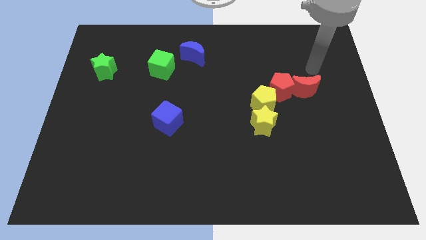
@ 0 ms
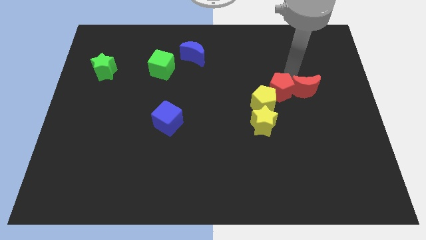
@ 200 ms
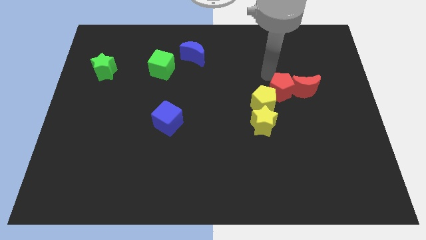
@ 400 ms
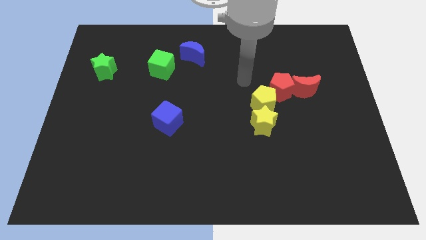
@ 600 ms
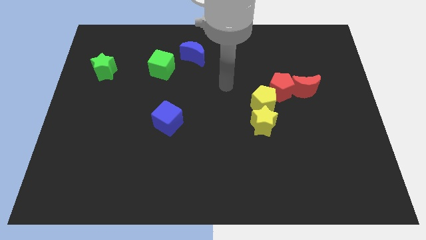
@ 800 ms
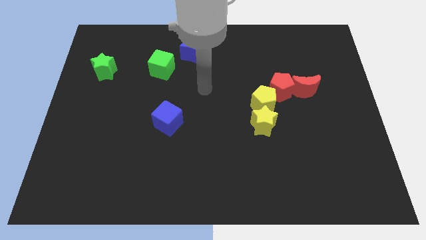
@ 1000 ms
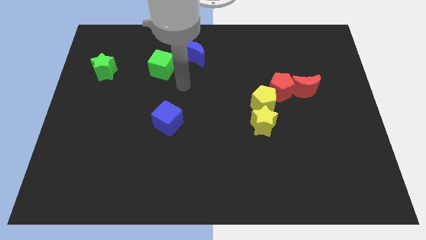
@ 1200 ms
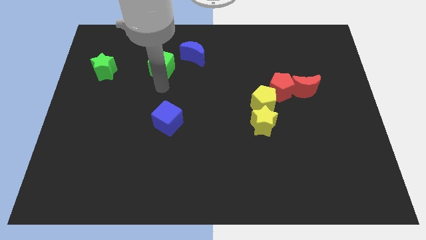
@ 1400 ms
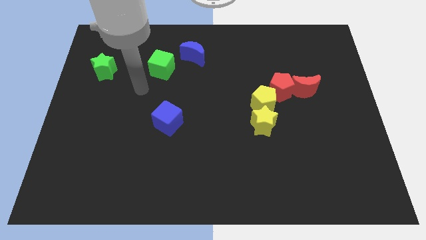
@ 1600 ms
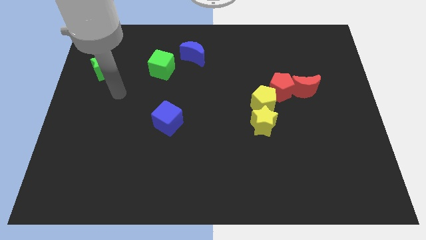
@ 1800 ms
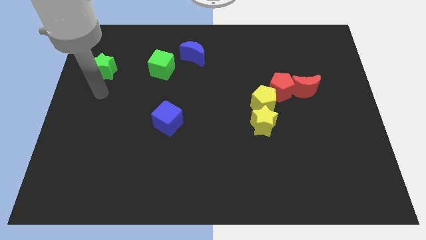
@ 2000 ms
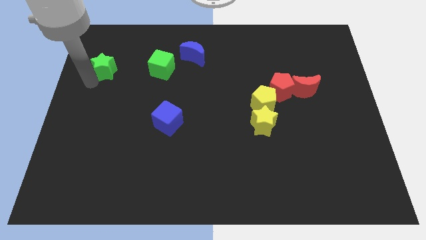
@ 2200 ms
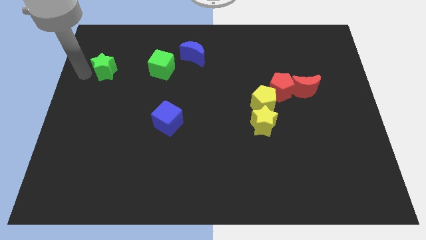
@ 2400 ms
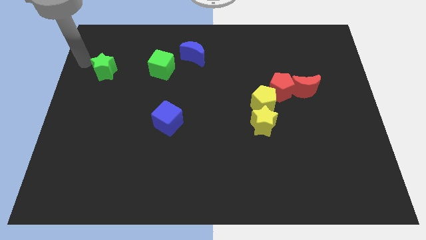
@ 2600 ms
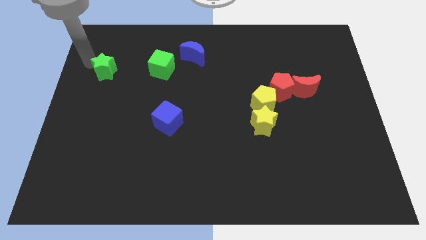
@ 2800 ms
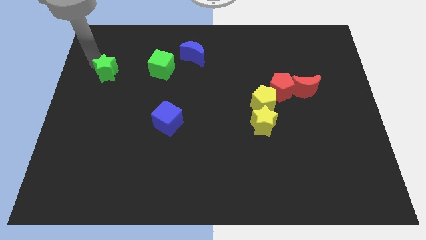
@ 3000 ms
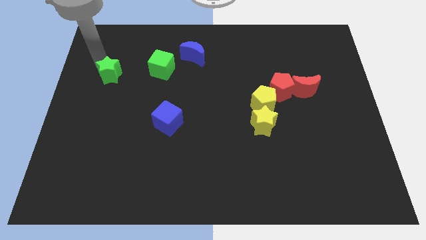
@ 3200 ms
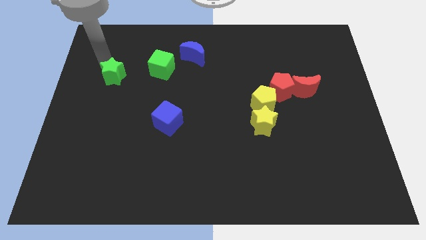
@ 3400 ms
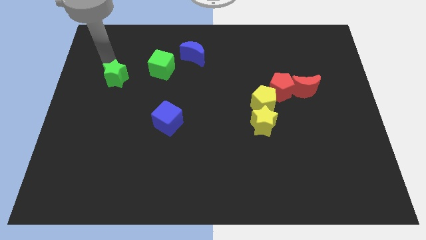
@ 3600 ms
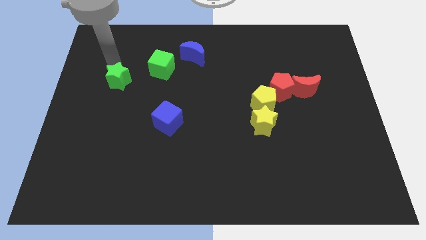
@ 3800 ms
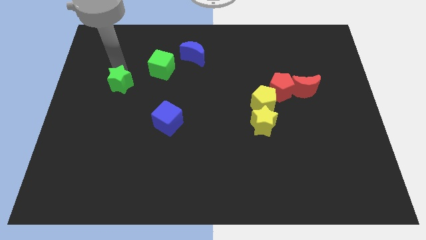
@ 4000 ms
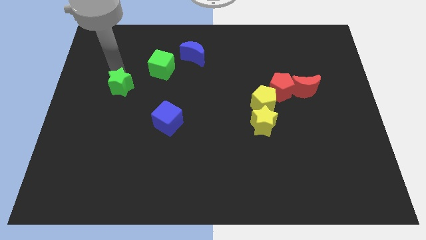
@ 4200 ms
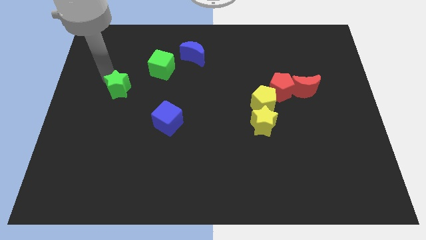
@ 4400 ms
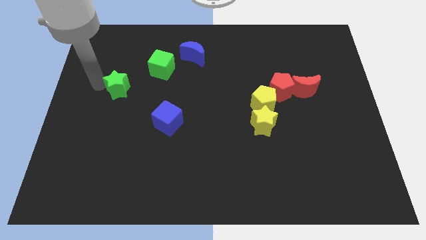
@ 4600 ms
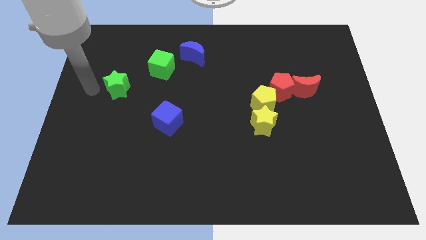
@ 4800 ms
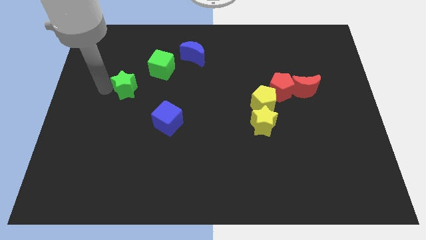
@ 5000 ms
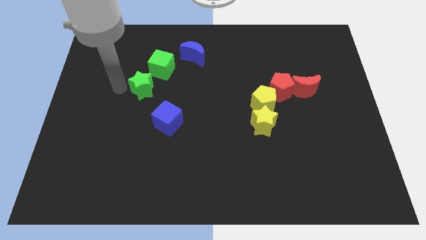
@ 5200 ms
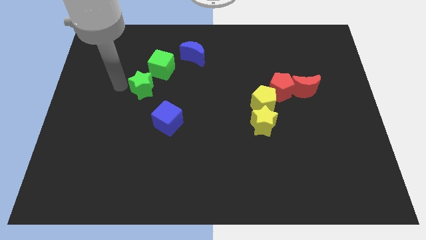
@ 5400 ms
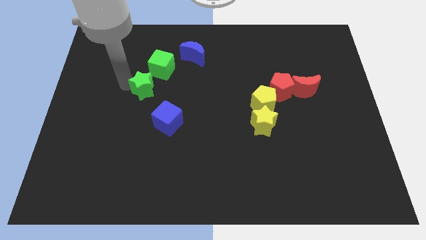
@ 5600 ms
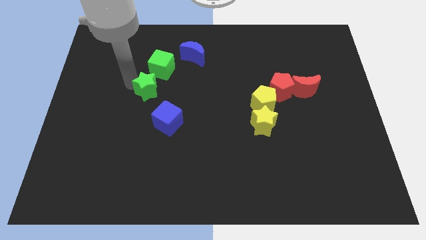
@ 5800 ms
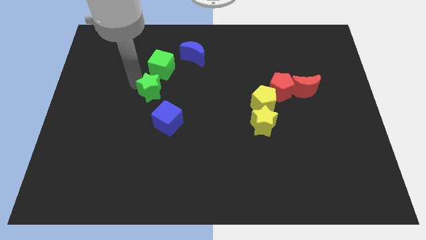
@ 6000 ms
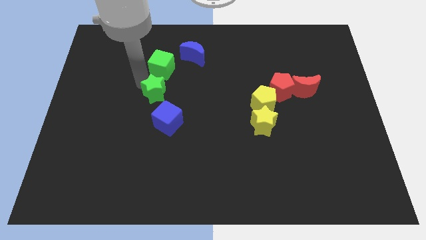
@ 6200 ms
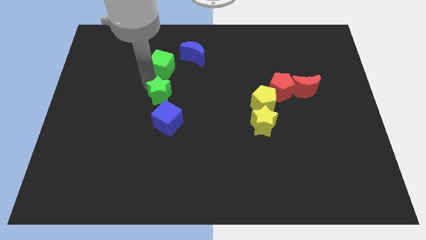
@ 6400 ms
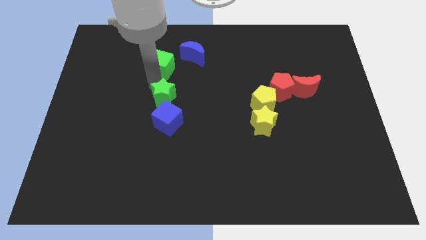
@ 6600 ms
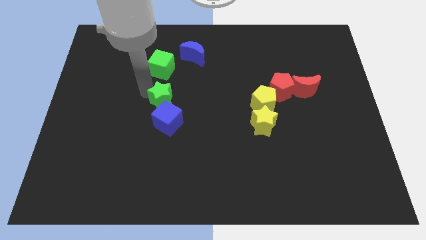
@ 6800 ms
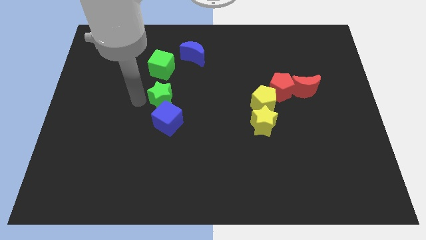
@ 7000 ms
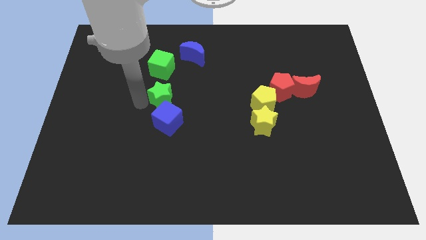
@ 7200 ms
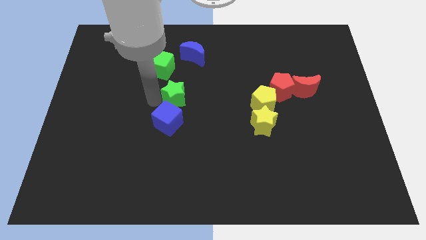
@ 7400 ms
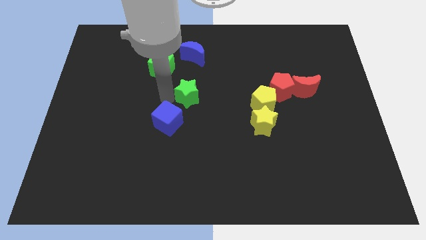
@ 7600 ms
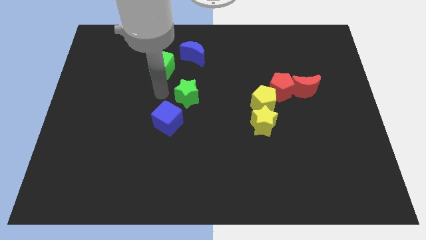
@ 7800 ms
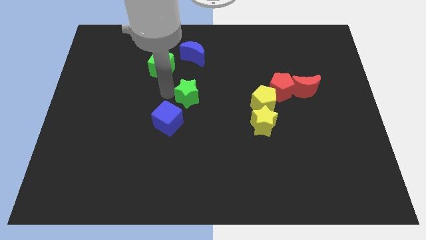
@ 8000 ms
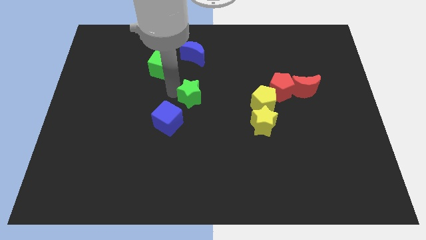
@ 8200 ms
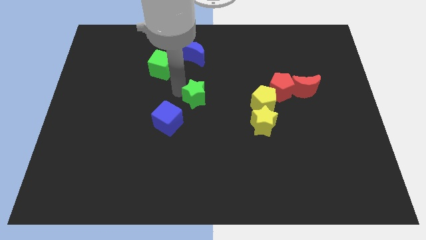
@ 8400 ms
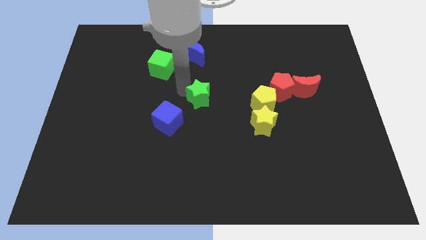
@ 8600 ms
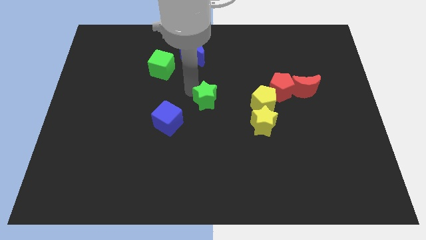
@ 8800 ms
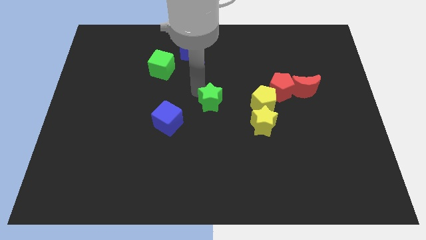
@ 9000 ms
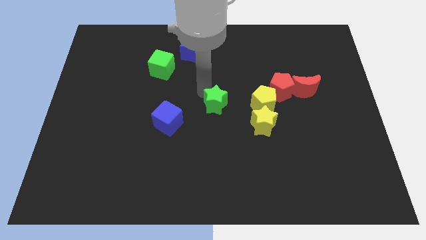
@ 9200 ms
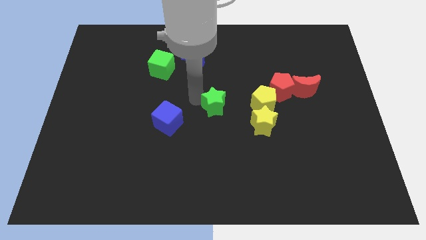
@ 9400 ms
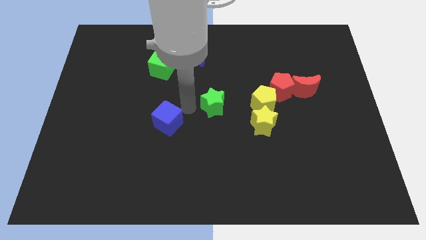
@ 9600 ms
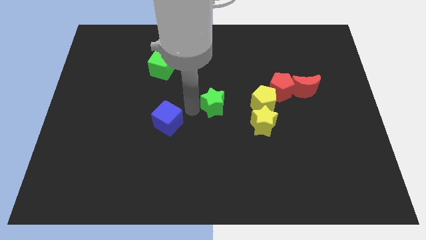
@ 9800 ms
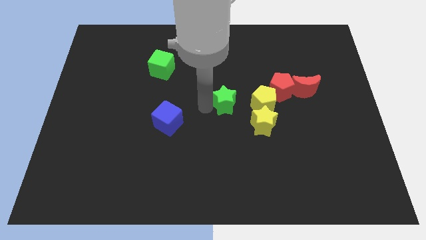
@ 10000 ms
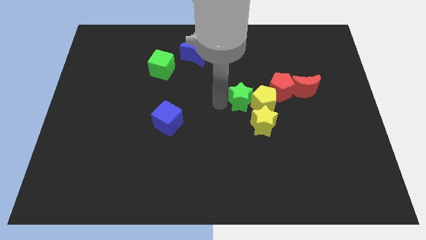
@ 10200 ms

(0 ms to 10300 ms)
move the green star close to the yellow pentagon

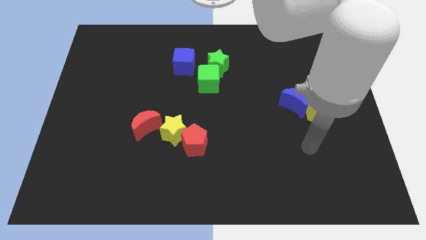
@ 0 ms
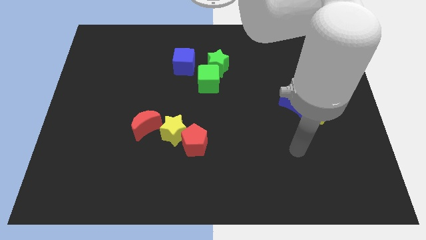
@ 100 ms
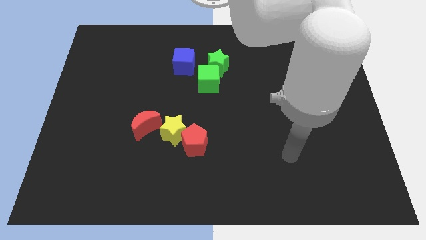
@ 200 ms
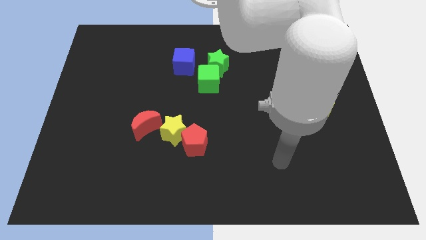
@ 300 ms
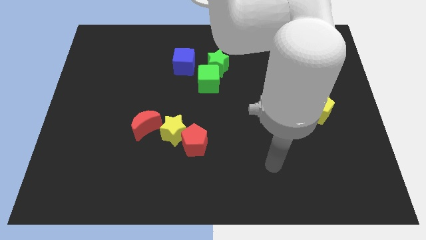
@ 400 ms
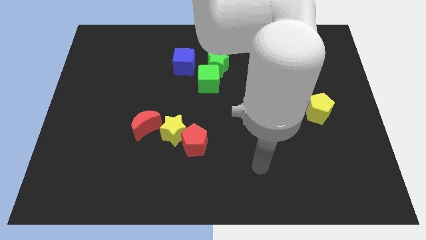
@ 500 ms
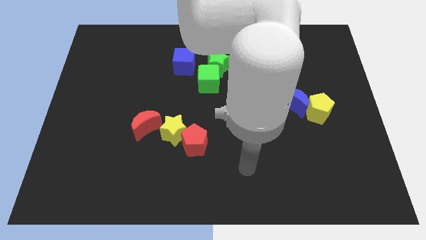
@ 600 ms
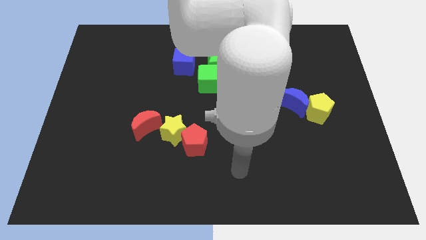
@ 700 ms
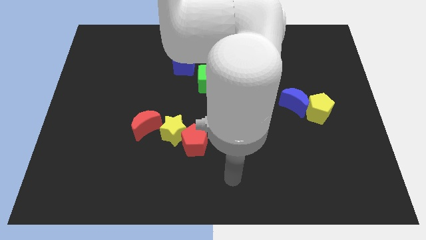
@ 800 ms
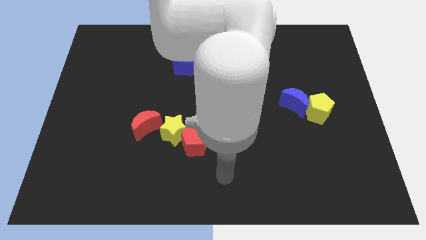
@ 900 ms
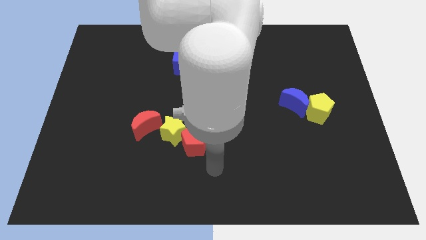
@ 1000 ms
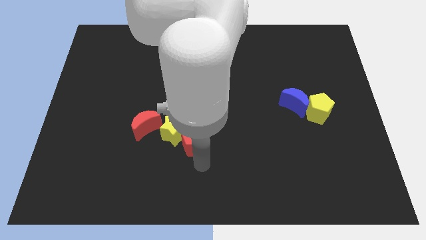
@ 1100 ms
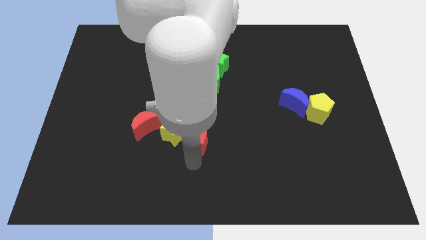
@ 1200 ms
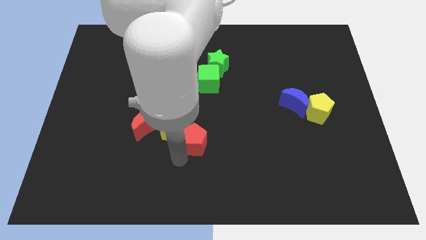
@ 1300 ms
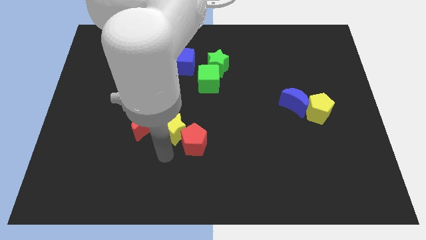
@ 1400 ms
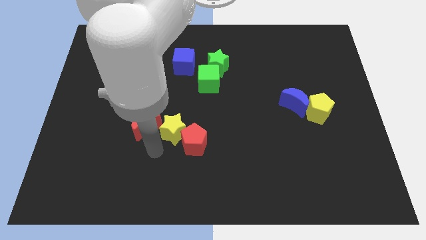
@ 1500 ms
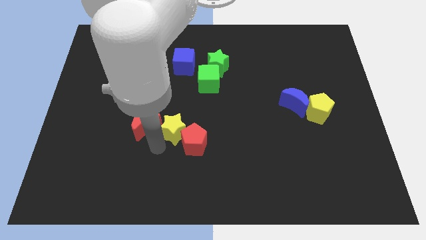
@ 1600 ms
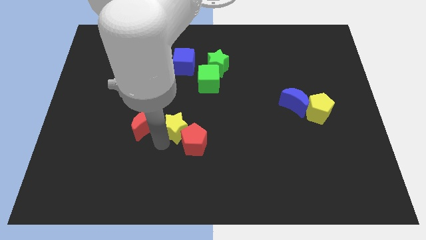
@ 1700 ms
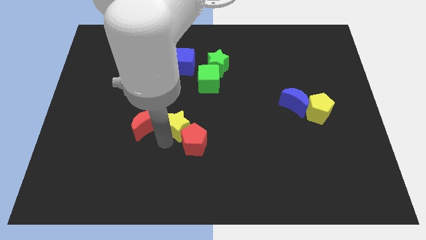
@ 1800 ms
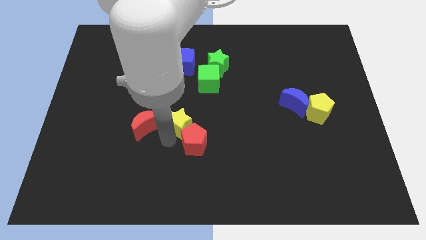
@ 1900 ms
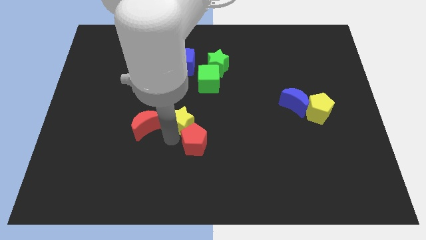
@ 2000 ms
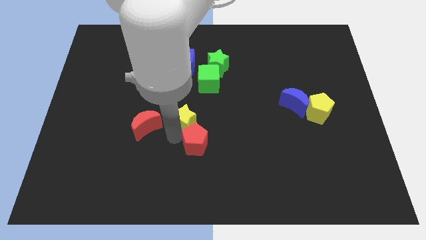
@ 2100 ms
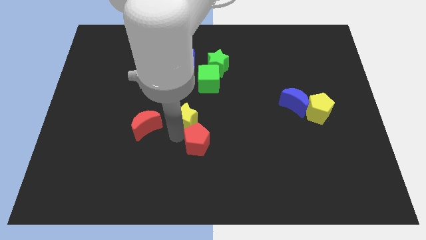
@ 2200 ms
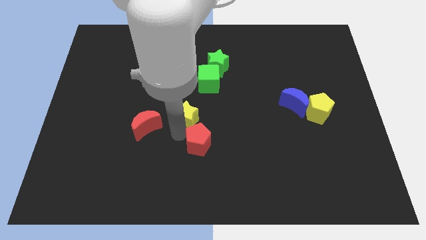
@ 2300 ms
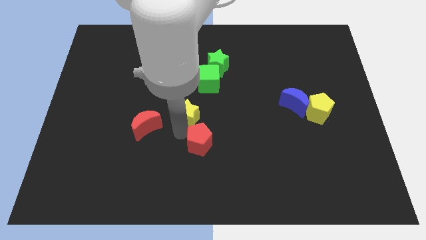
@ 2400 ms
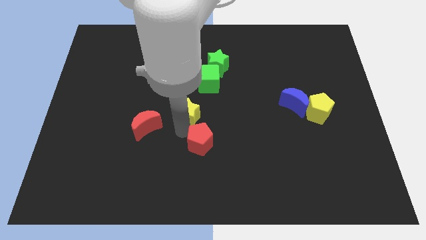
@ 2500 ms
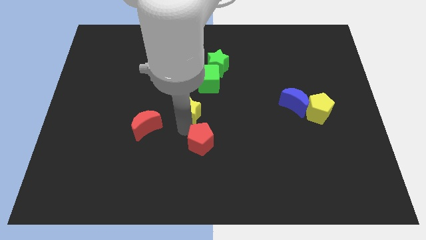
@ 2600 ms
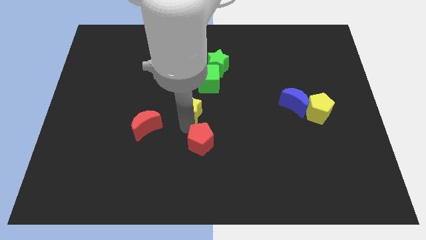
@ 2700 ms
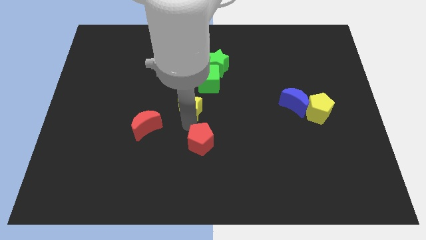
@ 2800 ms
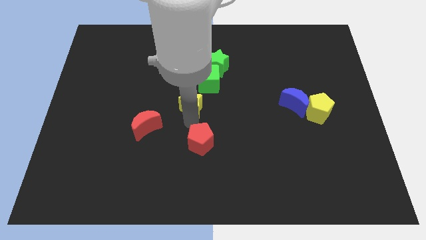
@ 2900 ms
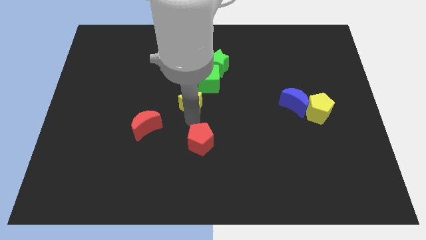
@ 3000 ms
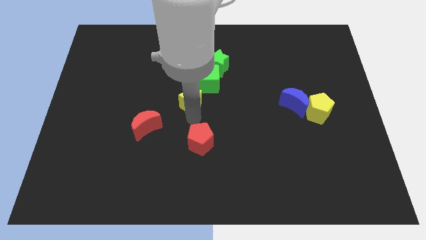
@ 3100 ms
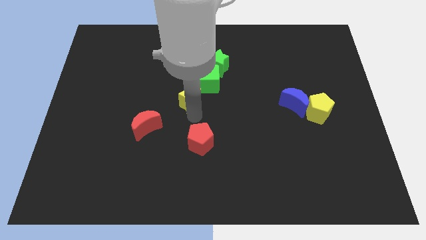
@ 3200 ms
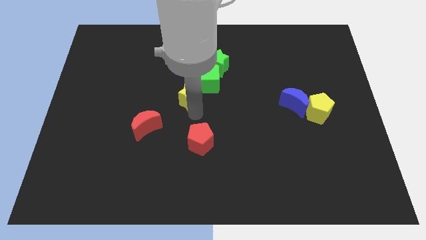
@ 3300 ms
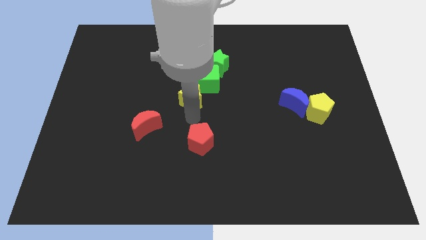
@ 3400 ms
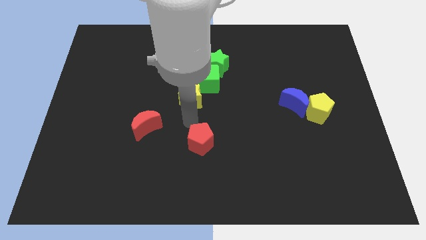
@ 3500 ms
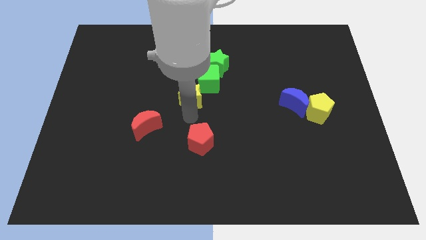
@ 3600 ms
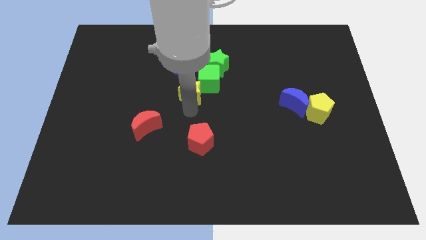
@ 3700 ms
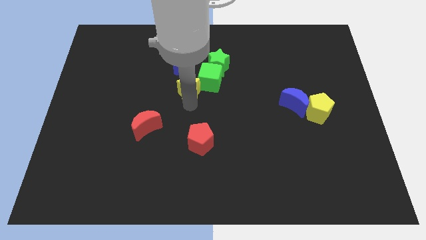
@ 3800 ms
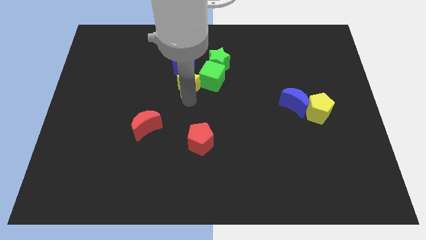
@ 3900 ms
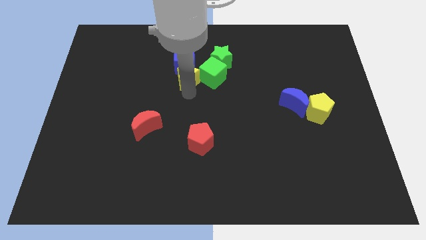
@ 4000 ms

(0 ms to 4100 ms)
slide the yellow star close to the blue cube
